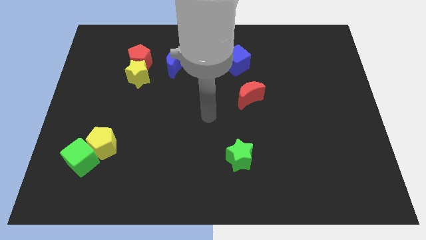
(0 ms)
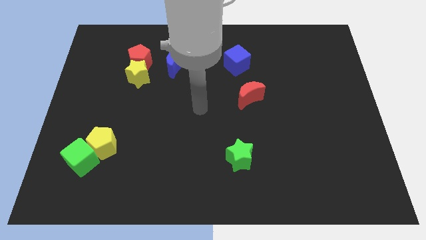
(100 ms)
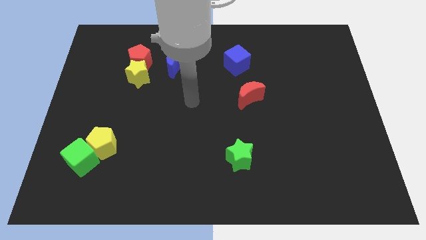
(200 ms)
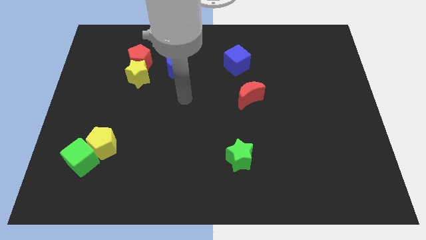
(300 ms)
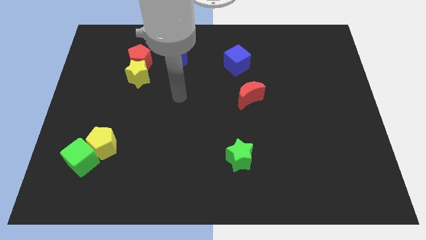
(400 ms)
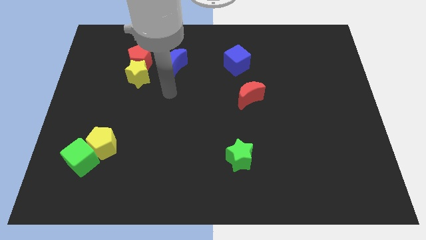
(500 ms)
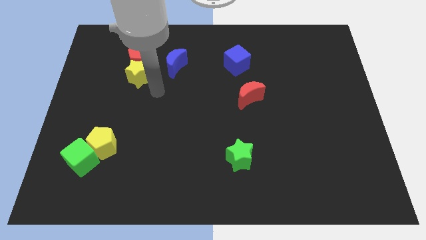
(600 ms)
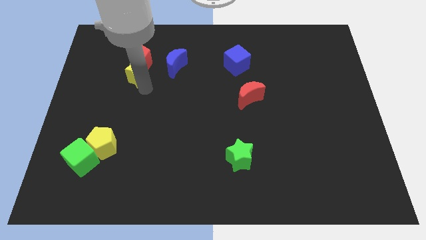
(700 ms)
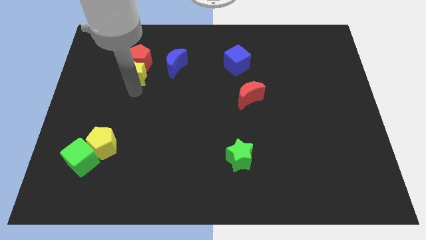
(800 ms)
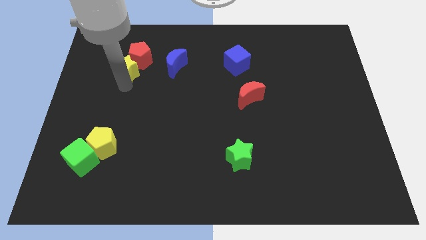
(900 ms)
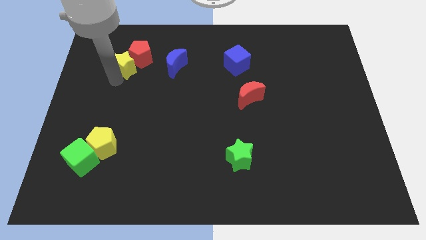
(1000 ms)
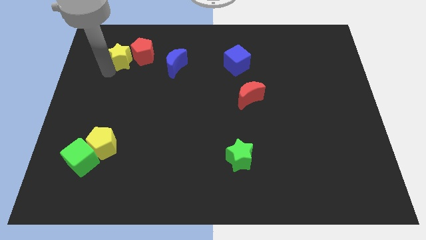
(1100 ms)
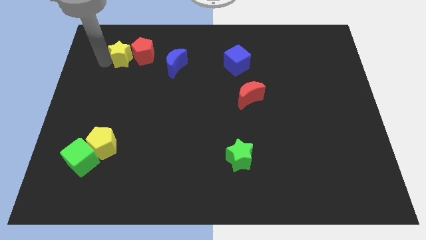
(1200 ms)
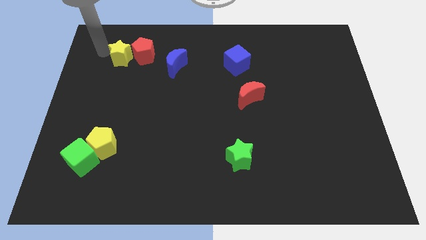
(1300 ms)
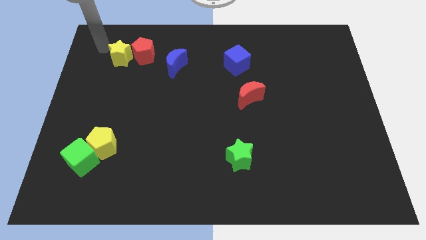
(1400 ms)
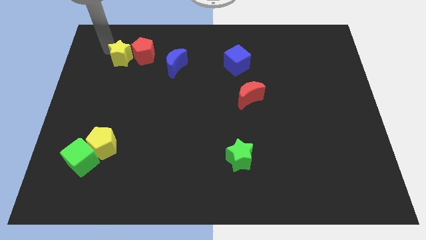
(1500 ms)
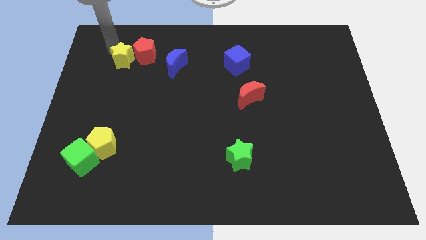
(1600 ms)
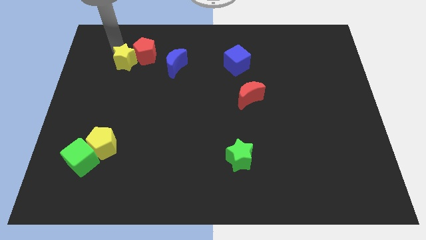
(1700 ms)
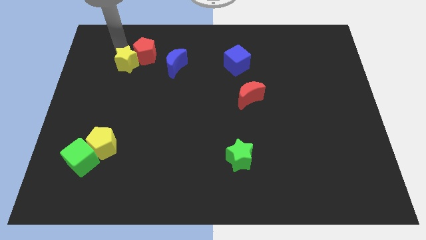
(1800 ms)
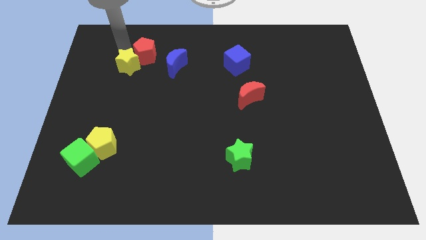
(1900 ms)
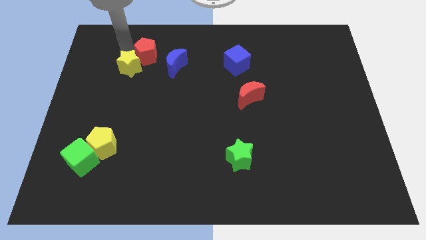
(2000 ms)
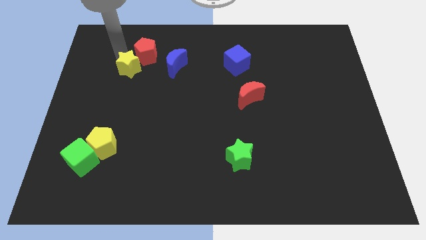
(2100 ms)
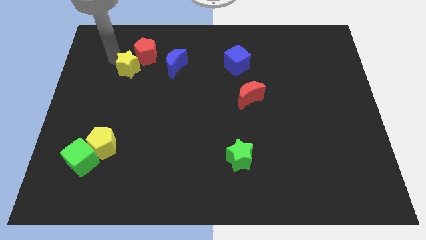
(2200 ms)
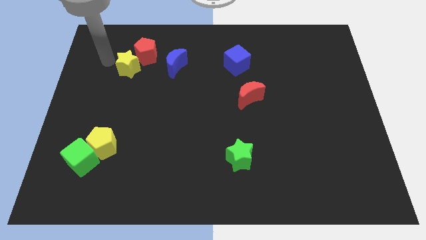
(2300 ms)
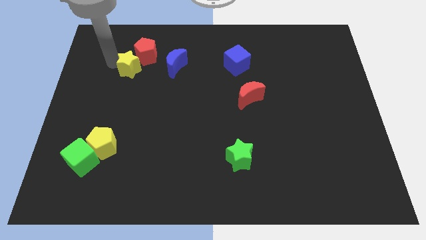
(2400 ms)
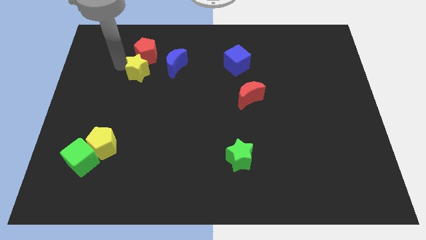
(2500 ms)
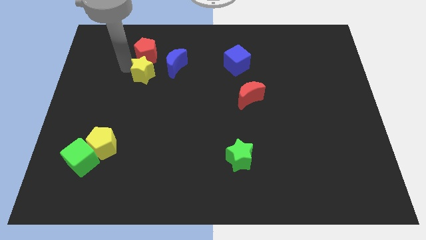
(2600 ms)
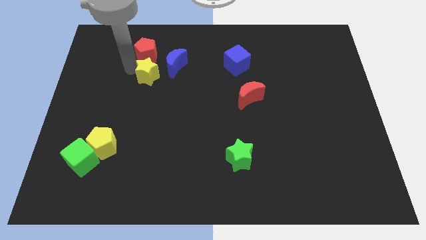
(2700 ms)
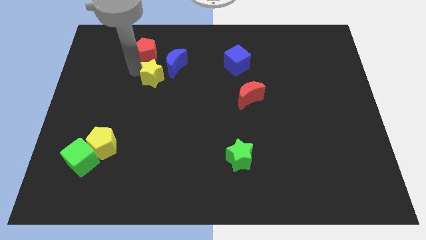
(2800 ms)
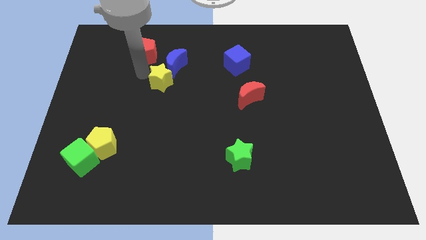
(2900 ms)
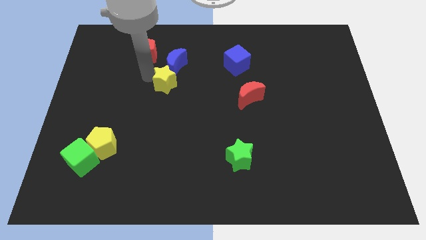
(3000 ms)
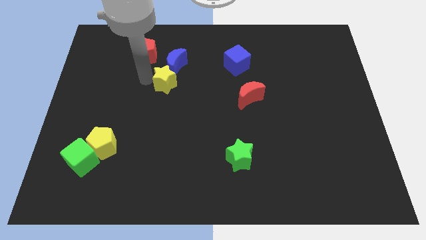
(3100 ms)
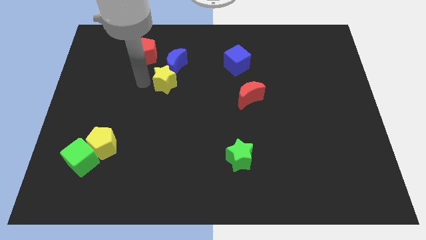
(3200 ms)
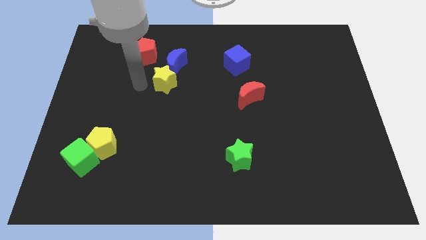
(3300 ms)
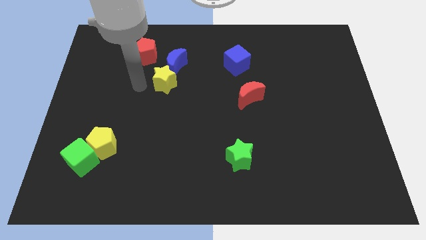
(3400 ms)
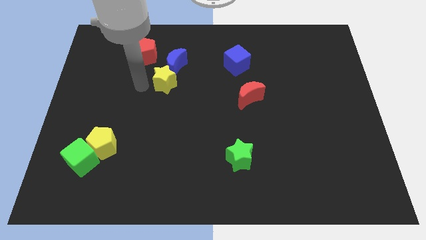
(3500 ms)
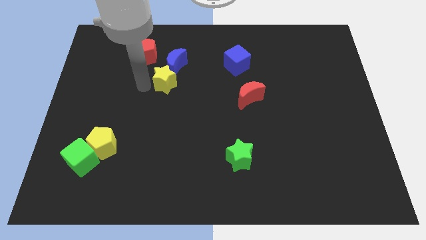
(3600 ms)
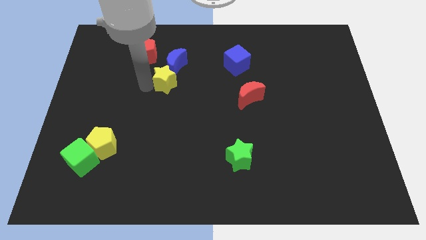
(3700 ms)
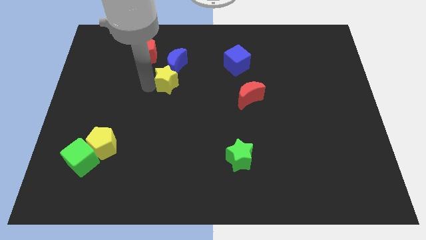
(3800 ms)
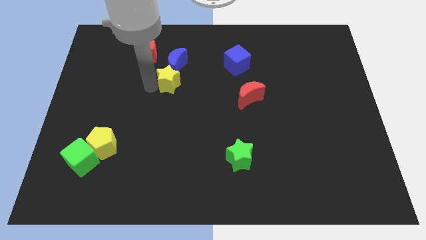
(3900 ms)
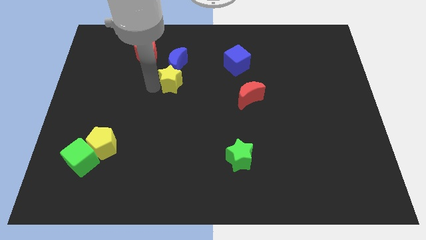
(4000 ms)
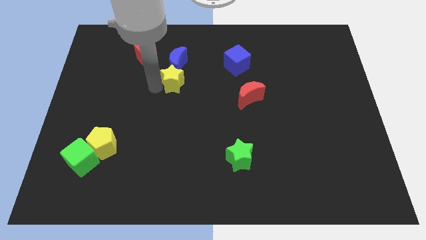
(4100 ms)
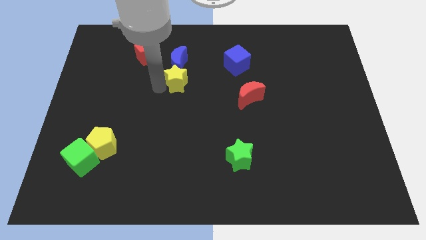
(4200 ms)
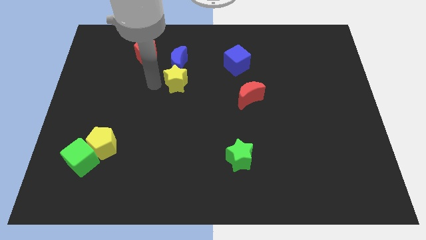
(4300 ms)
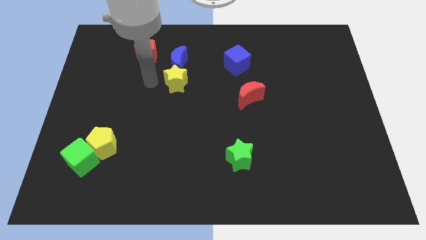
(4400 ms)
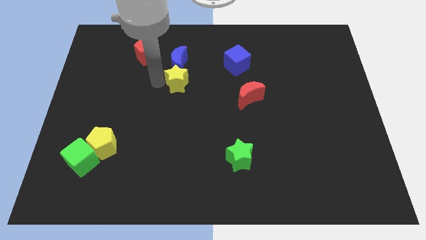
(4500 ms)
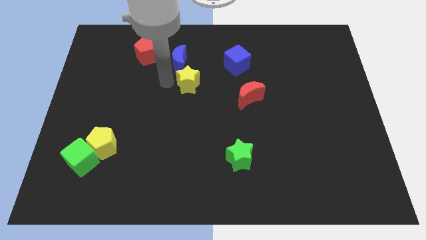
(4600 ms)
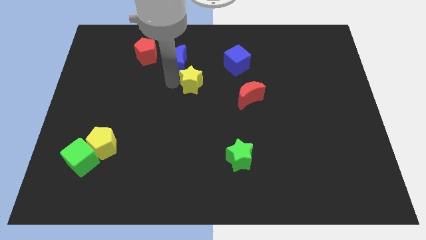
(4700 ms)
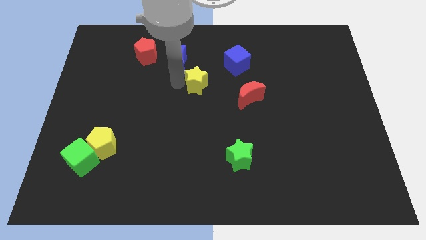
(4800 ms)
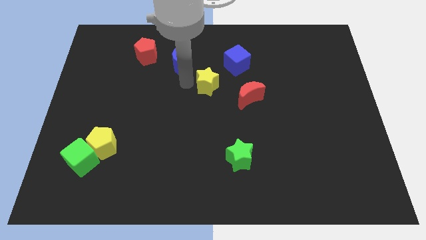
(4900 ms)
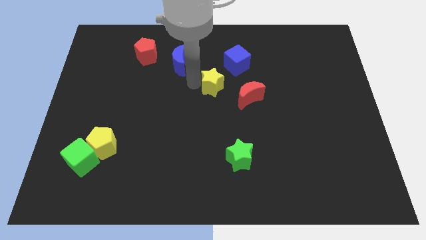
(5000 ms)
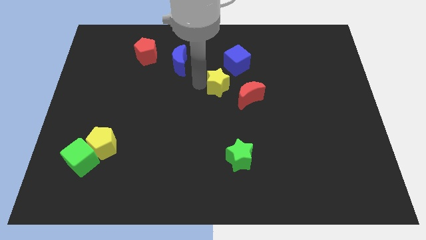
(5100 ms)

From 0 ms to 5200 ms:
push the yellow star right

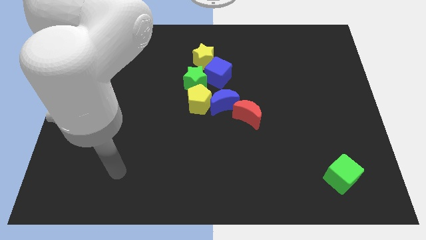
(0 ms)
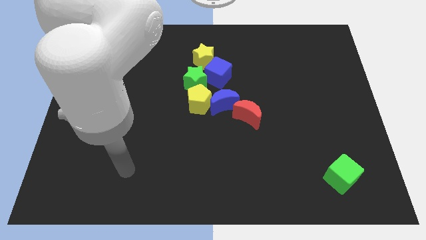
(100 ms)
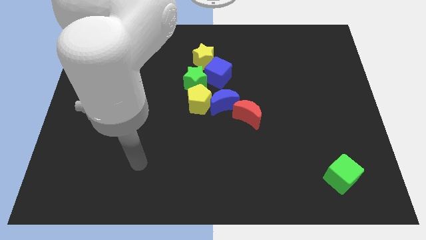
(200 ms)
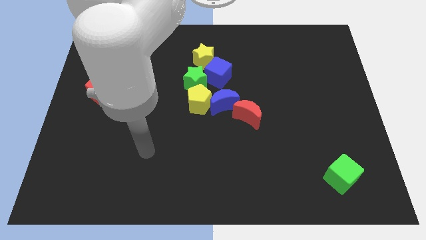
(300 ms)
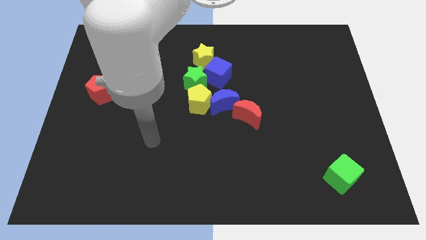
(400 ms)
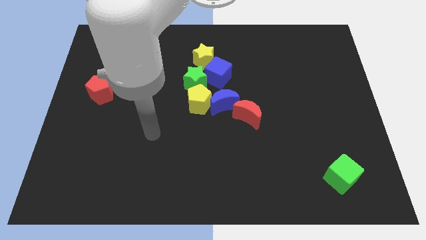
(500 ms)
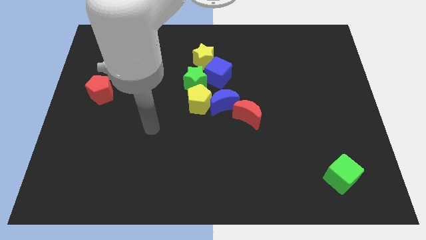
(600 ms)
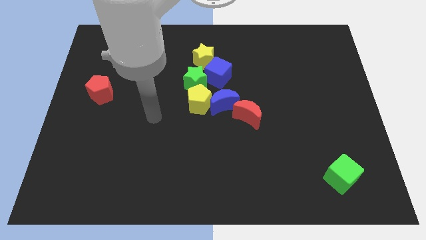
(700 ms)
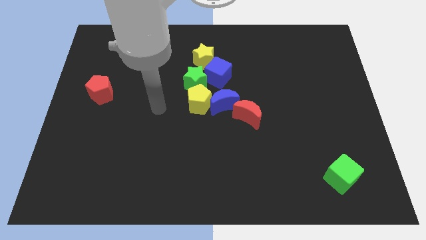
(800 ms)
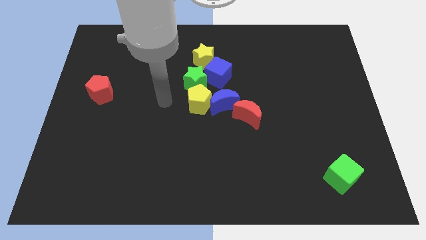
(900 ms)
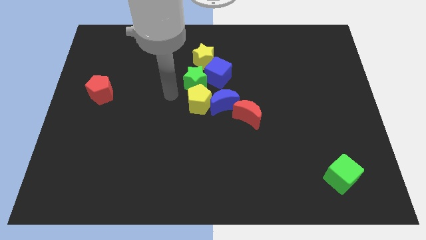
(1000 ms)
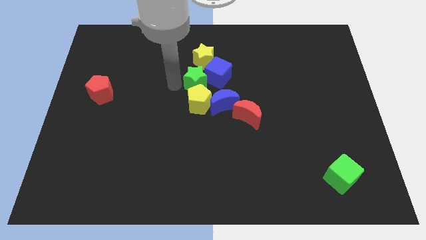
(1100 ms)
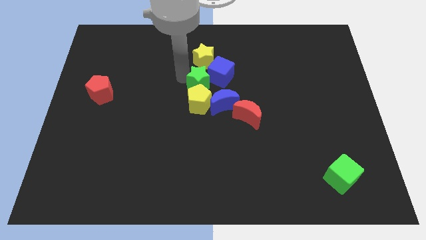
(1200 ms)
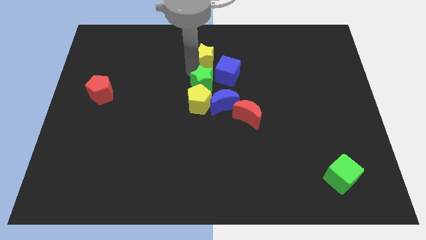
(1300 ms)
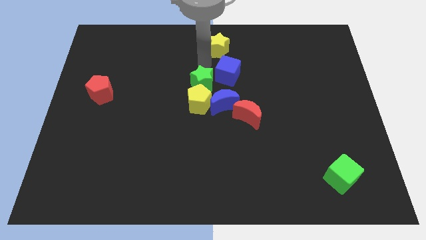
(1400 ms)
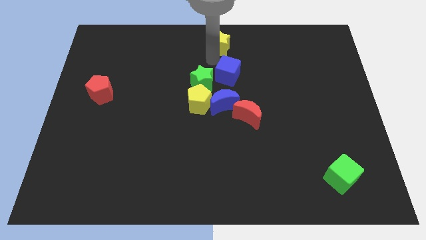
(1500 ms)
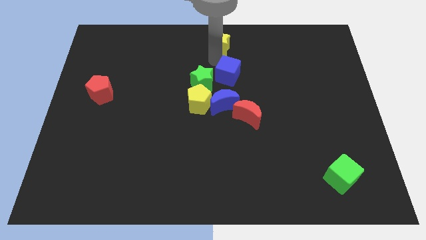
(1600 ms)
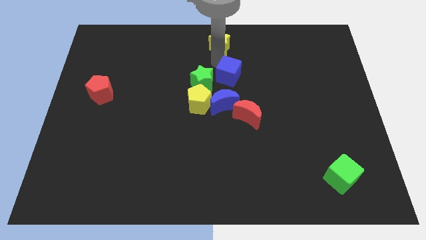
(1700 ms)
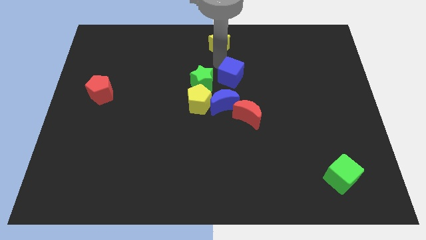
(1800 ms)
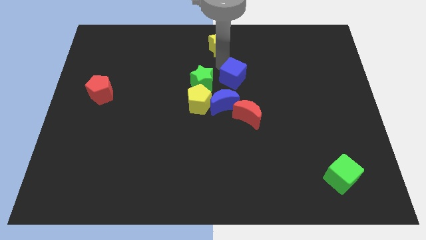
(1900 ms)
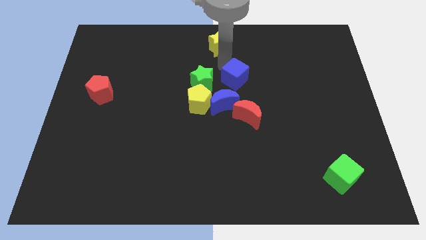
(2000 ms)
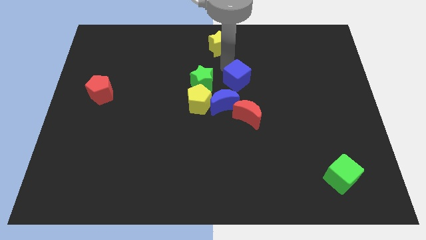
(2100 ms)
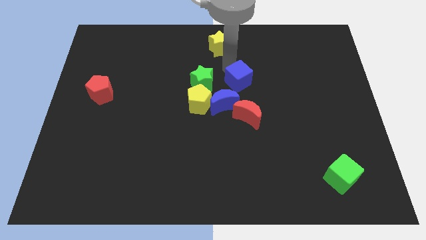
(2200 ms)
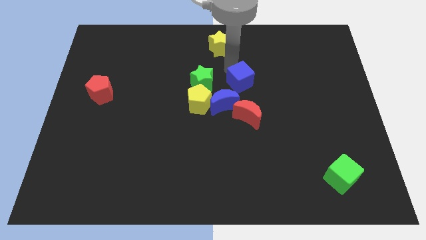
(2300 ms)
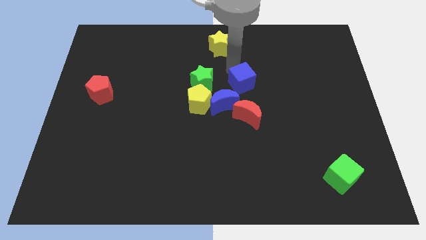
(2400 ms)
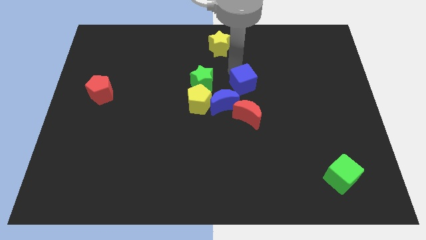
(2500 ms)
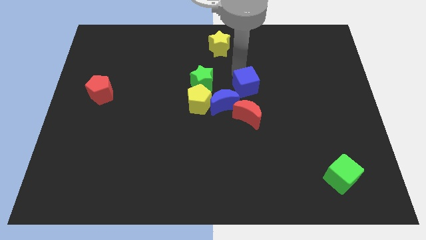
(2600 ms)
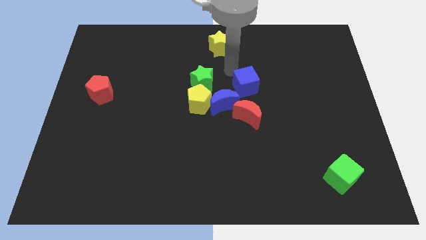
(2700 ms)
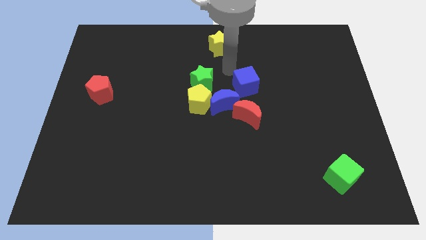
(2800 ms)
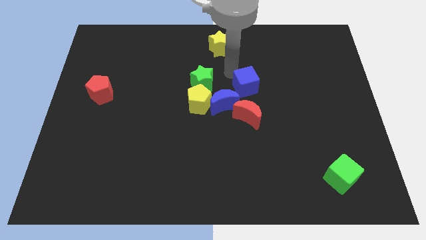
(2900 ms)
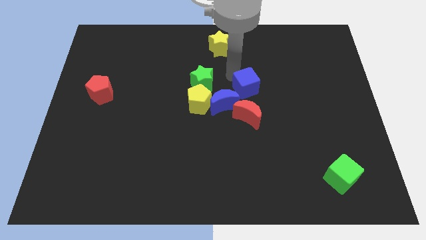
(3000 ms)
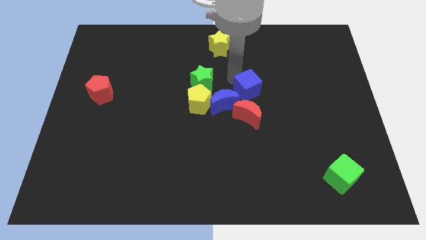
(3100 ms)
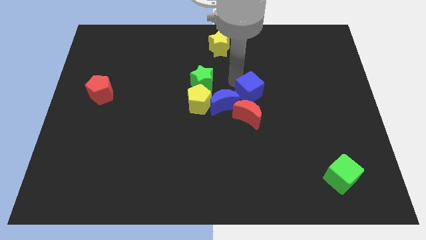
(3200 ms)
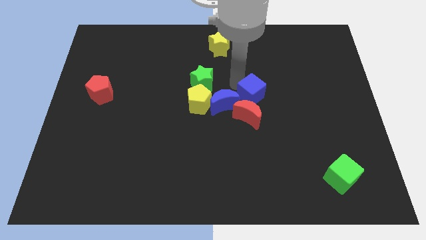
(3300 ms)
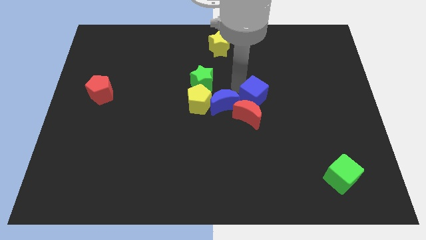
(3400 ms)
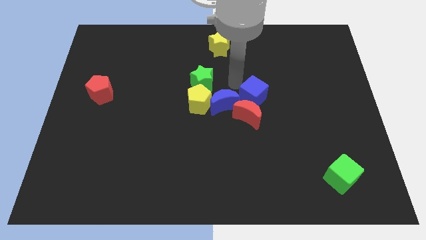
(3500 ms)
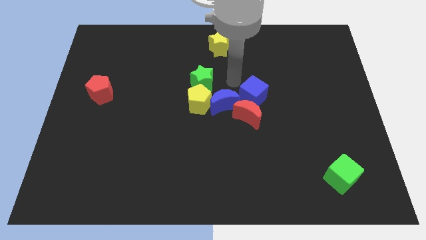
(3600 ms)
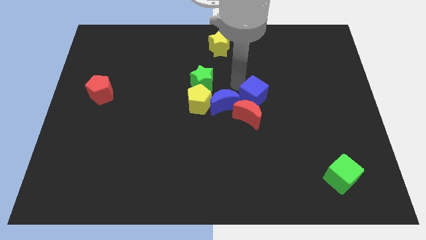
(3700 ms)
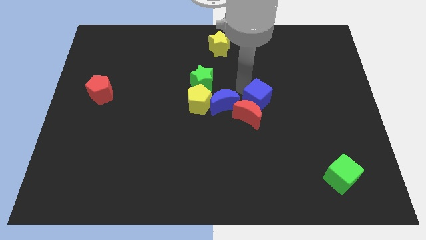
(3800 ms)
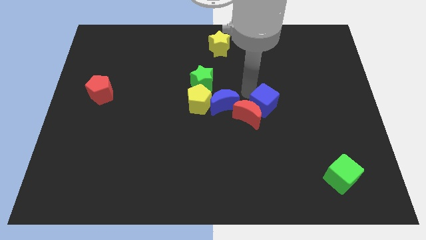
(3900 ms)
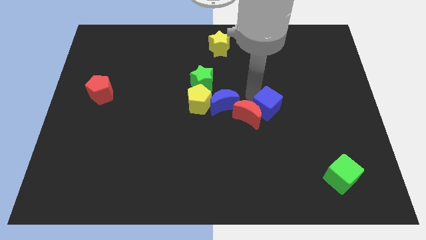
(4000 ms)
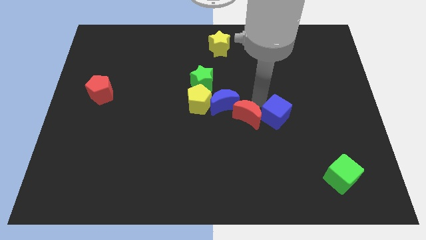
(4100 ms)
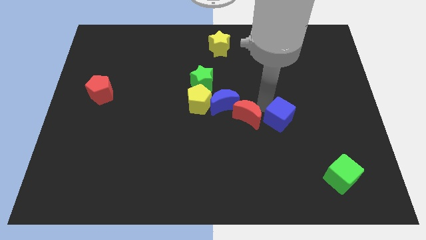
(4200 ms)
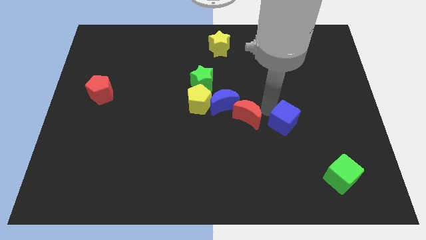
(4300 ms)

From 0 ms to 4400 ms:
slide the blue cube down and right diagonally
